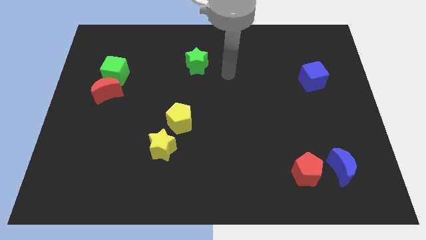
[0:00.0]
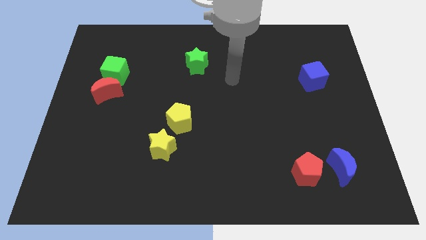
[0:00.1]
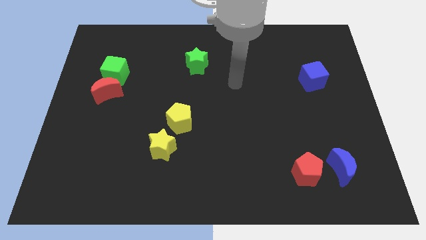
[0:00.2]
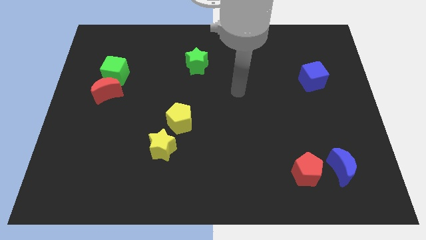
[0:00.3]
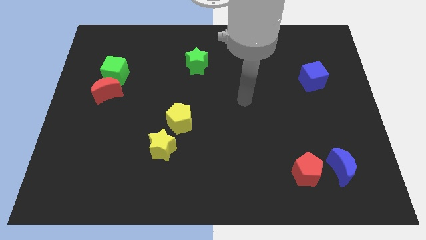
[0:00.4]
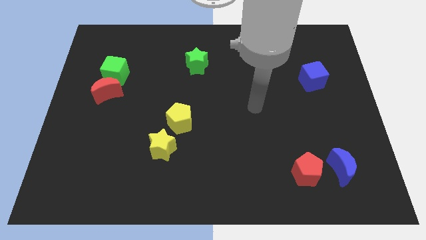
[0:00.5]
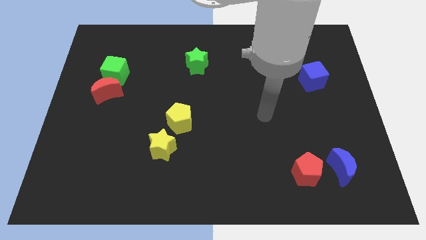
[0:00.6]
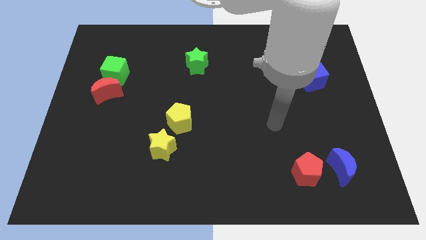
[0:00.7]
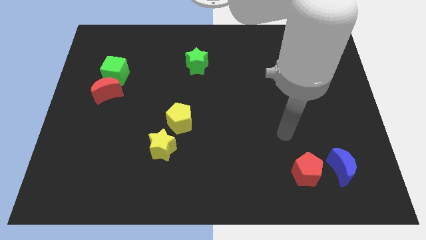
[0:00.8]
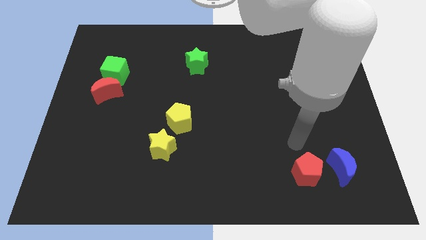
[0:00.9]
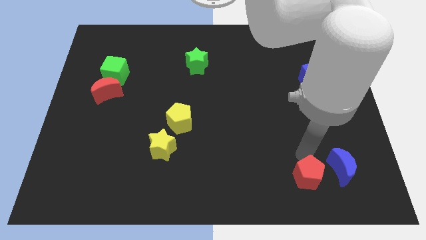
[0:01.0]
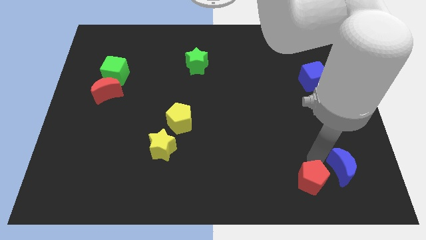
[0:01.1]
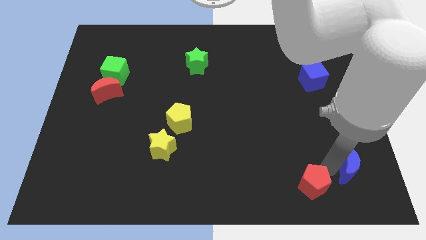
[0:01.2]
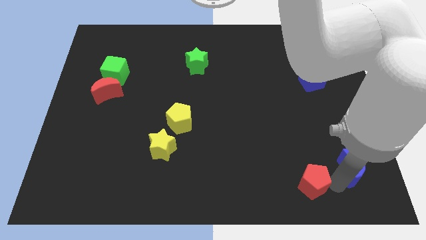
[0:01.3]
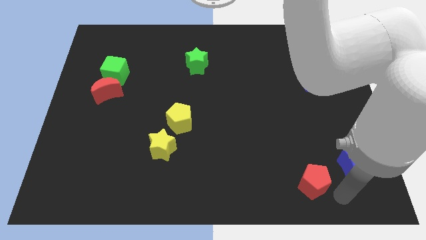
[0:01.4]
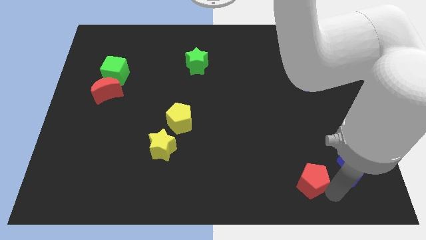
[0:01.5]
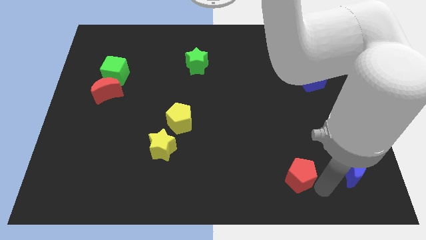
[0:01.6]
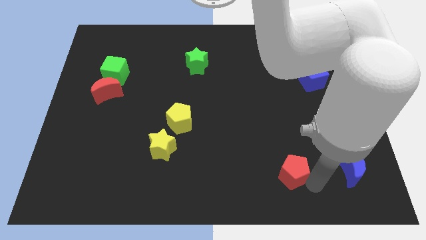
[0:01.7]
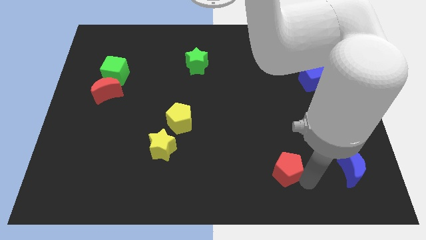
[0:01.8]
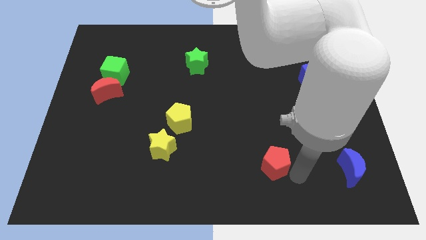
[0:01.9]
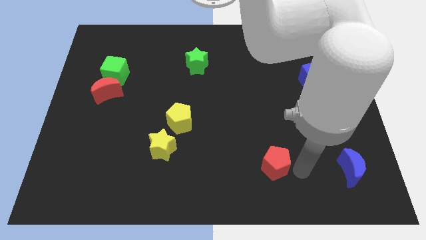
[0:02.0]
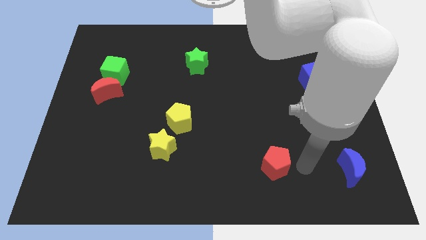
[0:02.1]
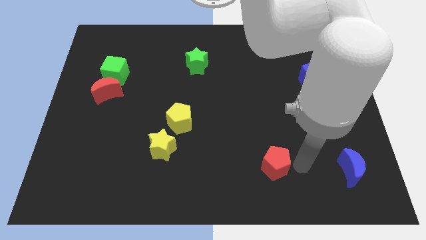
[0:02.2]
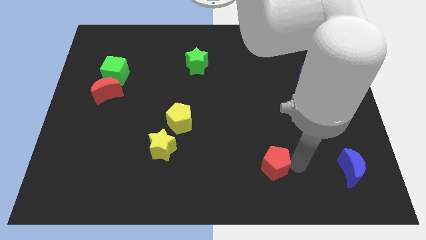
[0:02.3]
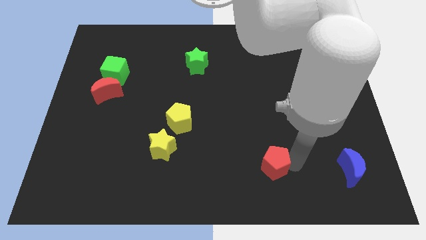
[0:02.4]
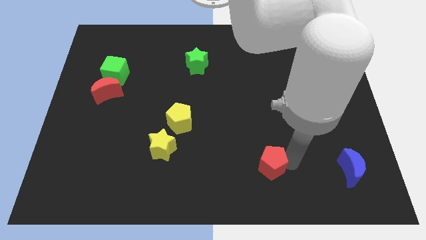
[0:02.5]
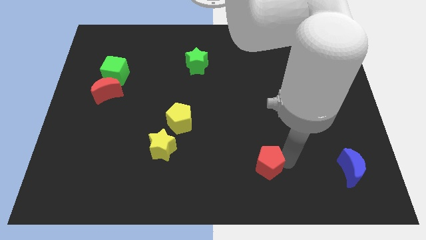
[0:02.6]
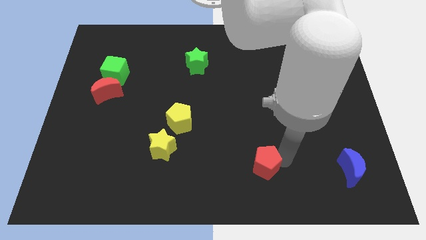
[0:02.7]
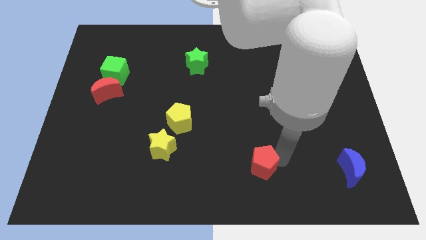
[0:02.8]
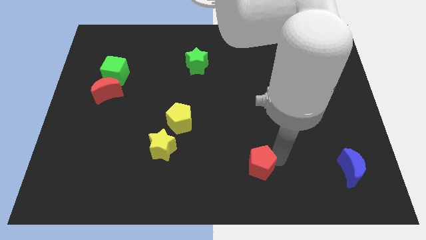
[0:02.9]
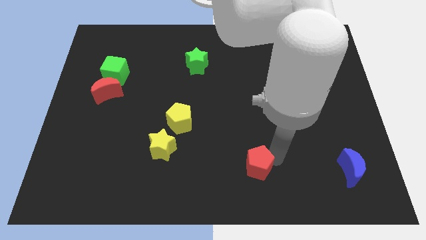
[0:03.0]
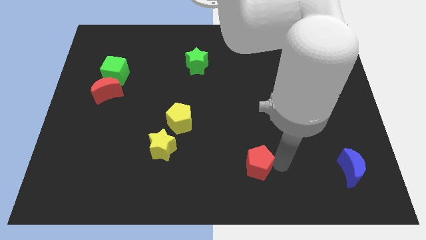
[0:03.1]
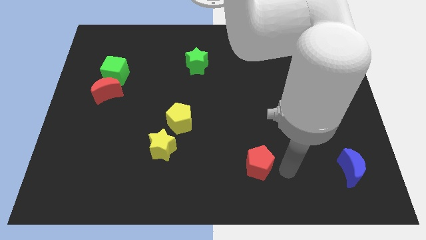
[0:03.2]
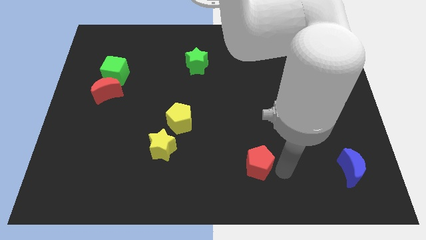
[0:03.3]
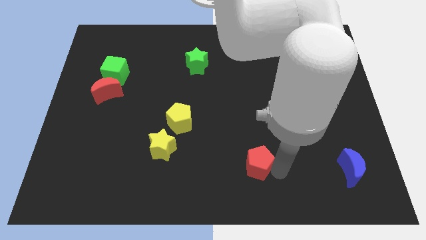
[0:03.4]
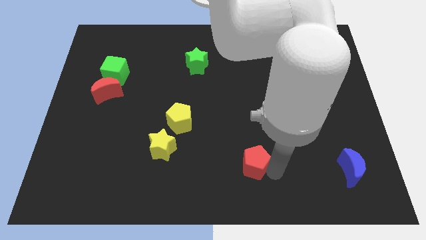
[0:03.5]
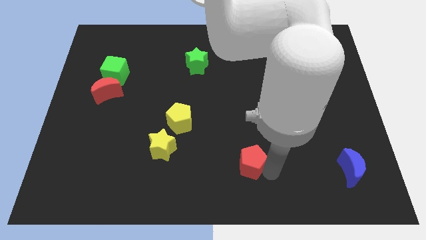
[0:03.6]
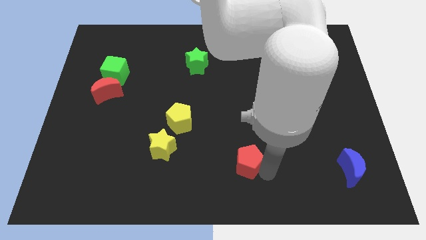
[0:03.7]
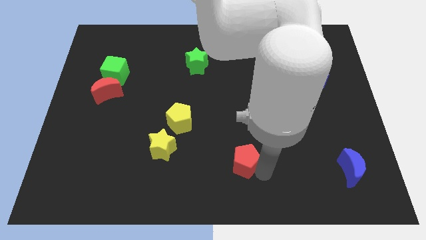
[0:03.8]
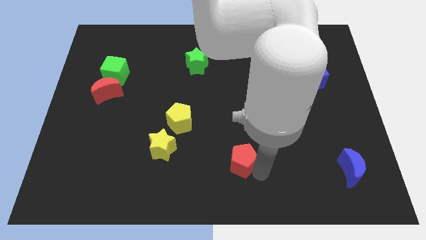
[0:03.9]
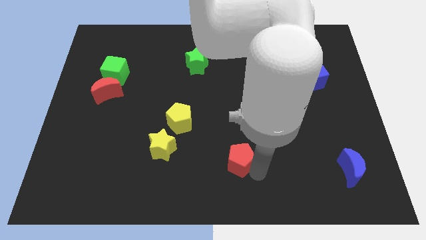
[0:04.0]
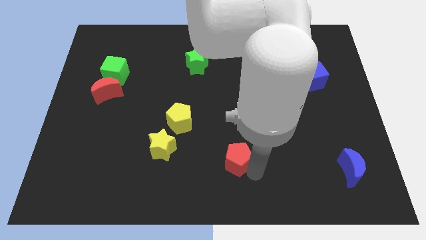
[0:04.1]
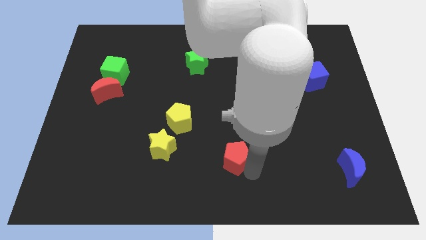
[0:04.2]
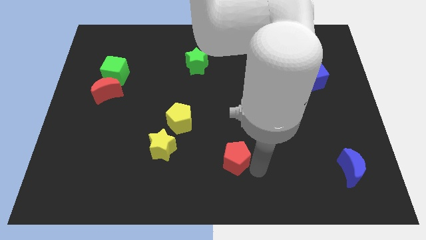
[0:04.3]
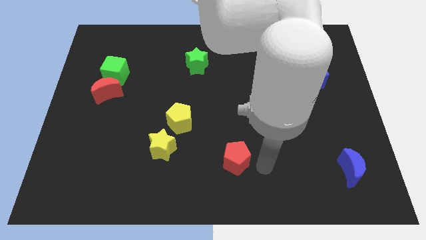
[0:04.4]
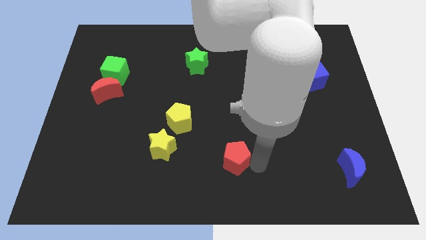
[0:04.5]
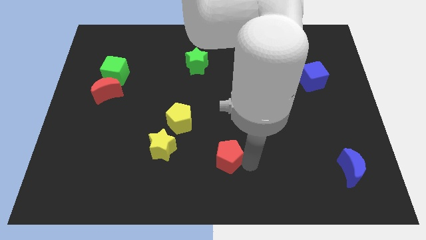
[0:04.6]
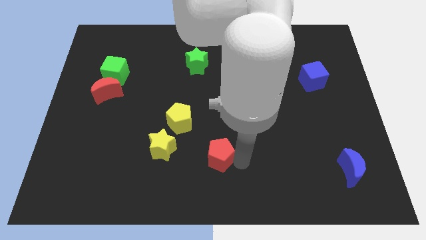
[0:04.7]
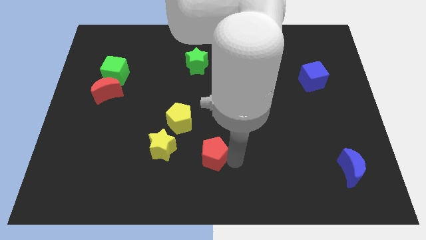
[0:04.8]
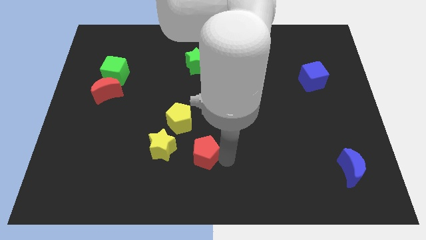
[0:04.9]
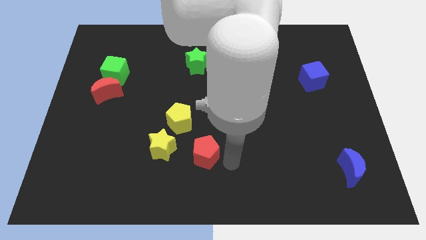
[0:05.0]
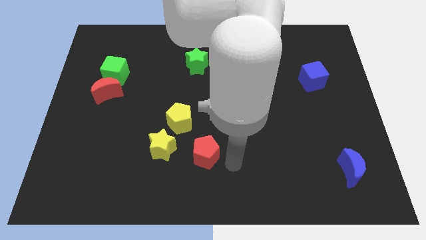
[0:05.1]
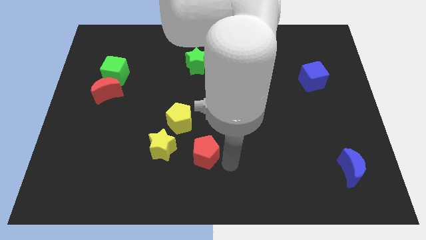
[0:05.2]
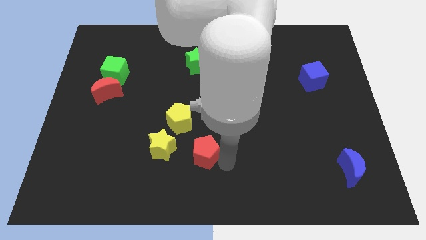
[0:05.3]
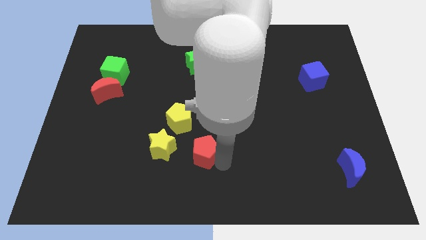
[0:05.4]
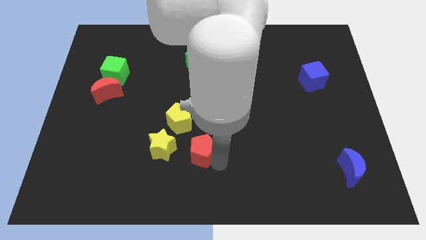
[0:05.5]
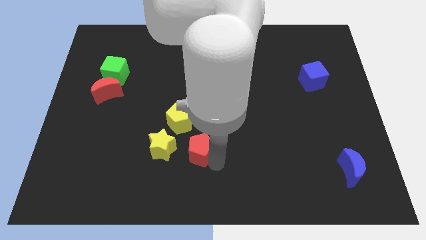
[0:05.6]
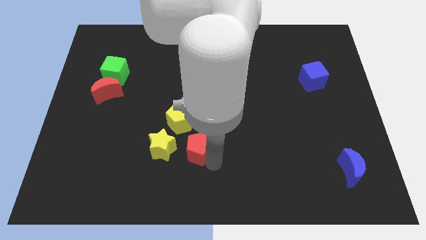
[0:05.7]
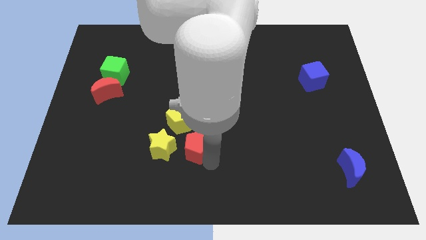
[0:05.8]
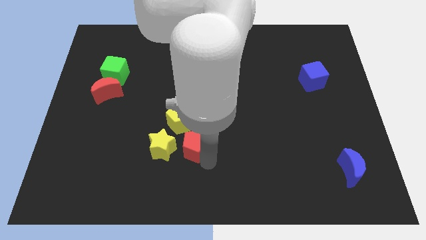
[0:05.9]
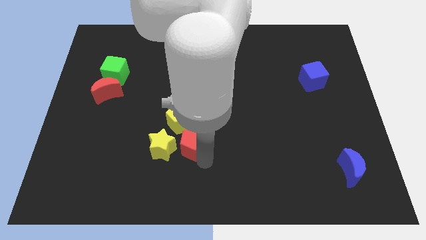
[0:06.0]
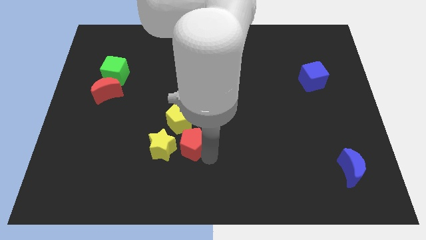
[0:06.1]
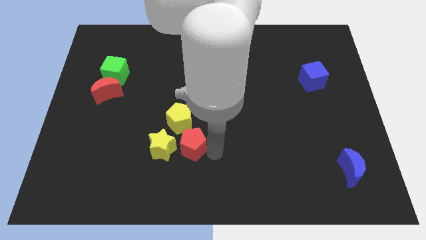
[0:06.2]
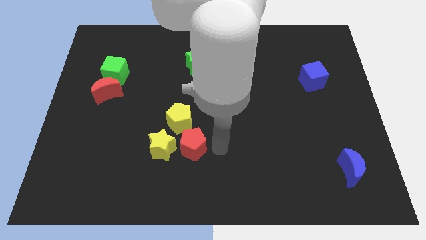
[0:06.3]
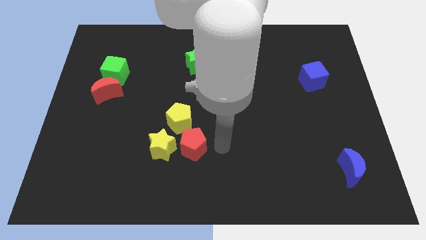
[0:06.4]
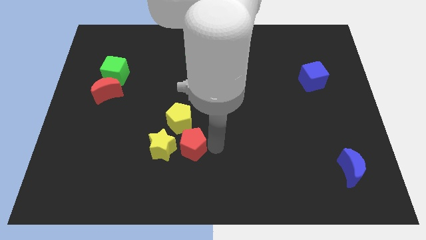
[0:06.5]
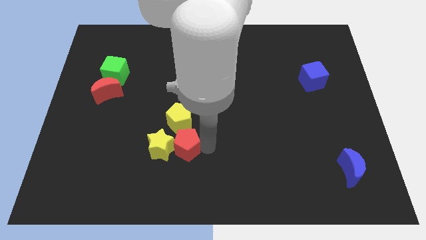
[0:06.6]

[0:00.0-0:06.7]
put the red pentagon next to the yellow star
